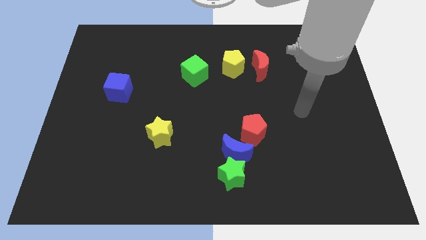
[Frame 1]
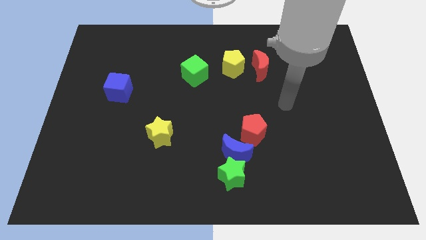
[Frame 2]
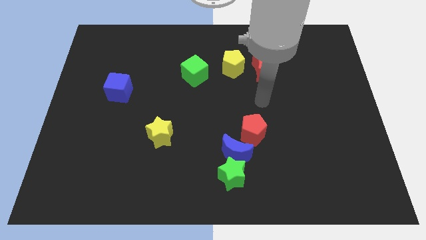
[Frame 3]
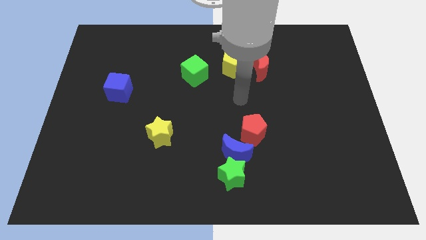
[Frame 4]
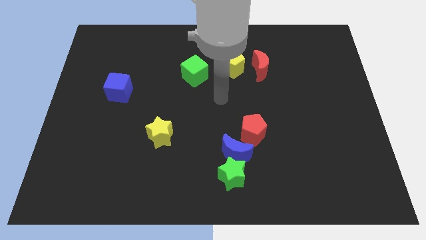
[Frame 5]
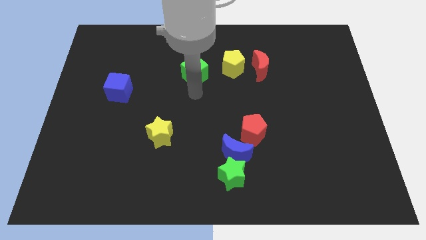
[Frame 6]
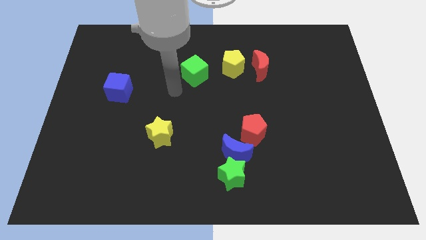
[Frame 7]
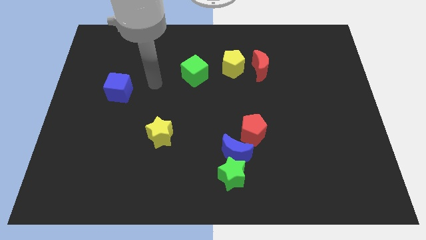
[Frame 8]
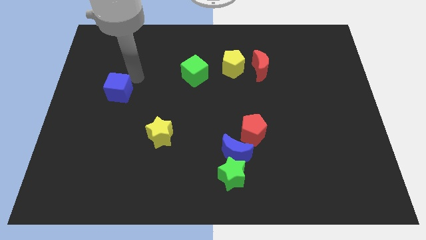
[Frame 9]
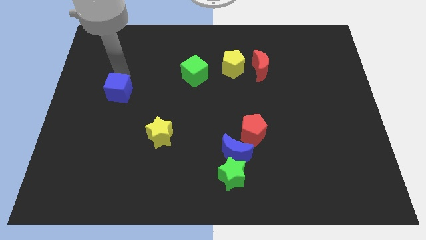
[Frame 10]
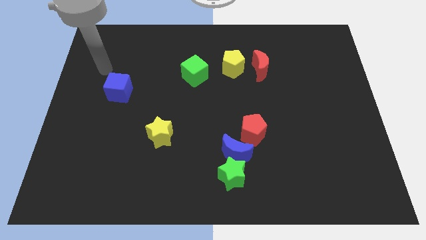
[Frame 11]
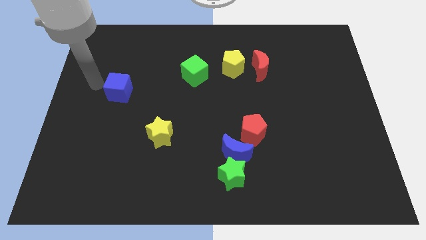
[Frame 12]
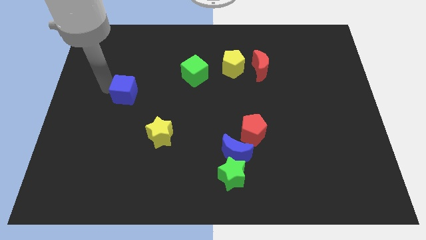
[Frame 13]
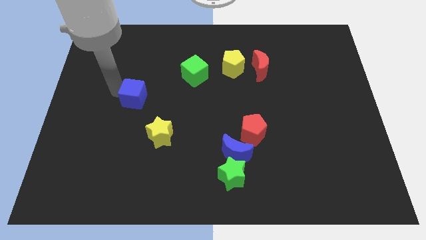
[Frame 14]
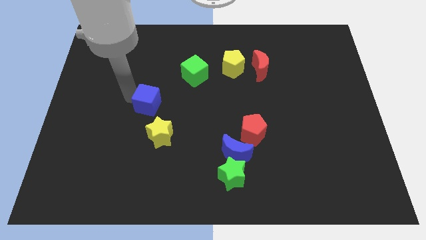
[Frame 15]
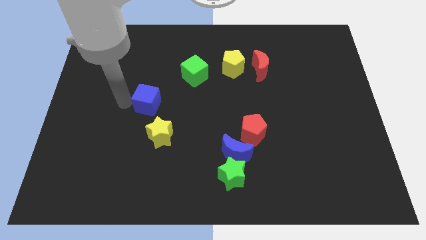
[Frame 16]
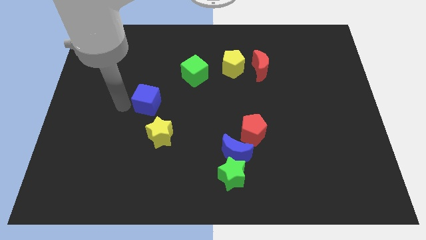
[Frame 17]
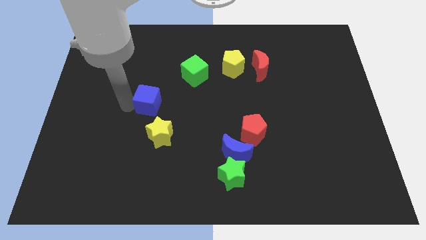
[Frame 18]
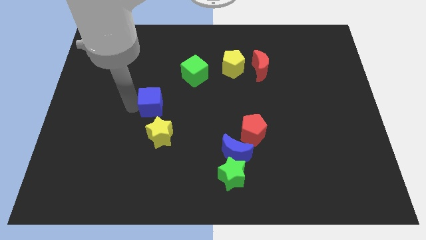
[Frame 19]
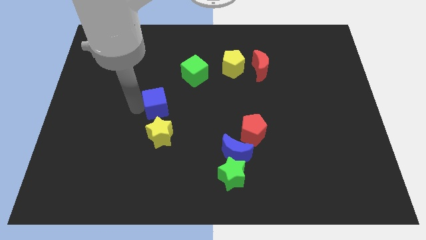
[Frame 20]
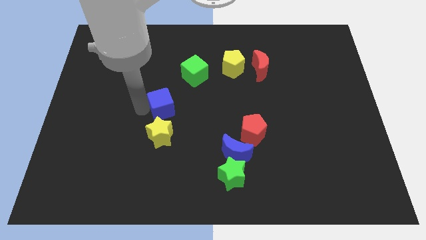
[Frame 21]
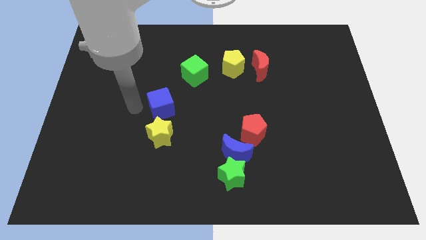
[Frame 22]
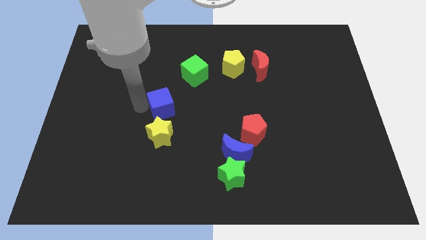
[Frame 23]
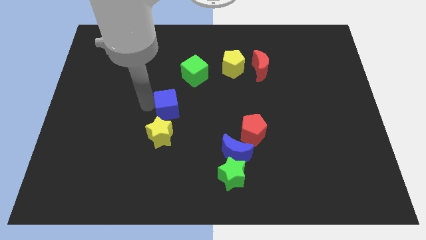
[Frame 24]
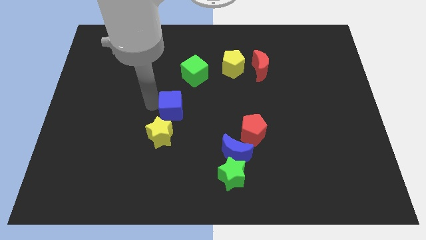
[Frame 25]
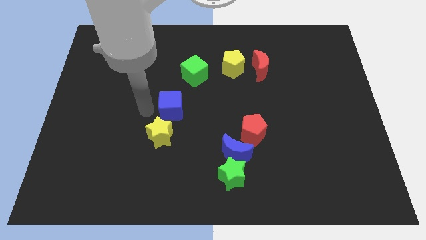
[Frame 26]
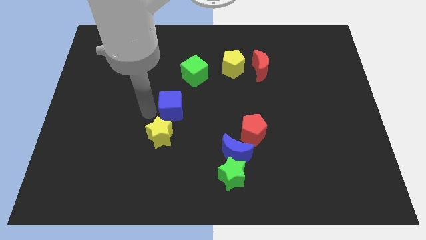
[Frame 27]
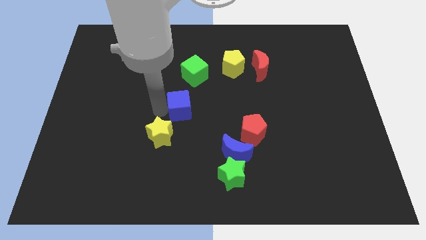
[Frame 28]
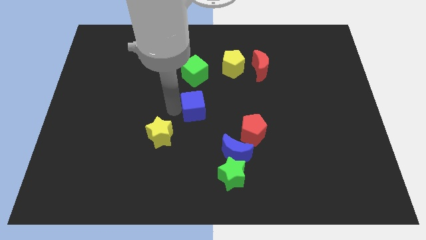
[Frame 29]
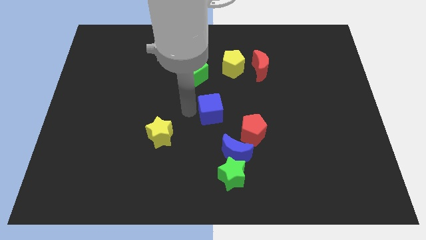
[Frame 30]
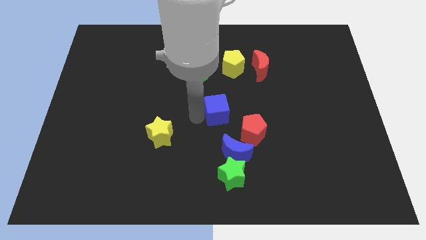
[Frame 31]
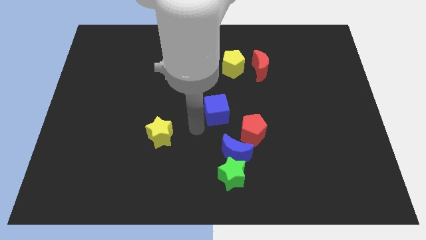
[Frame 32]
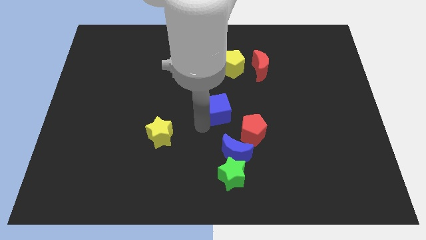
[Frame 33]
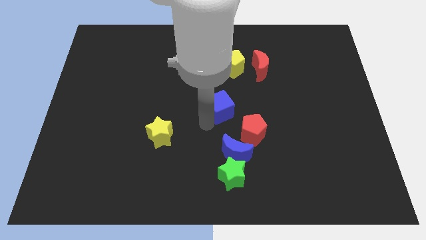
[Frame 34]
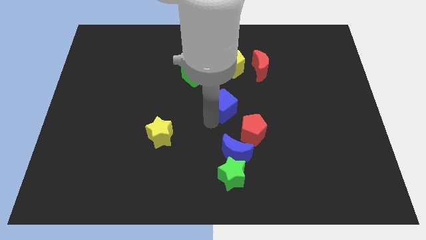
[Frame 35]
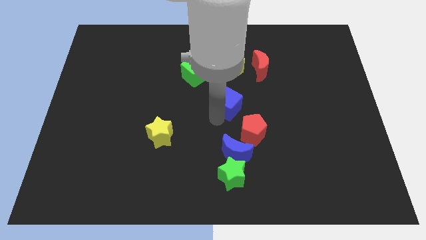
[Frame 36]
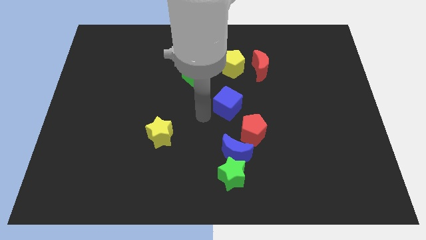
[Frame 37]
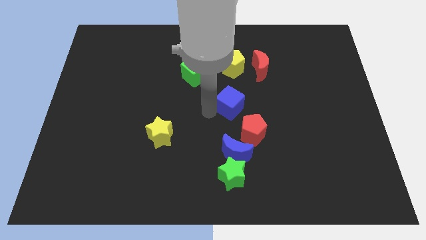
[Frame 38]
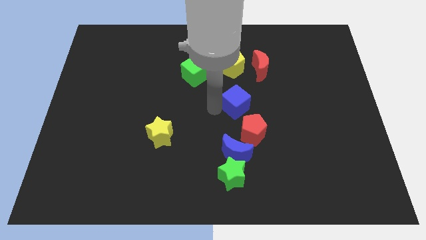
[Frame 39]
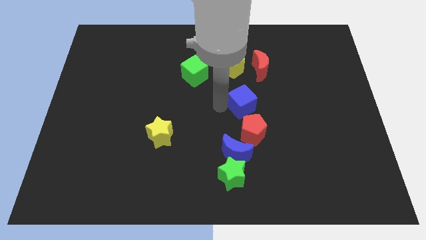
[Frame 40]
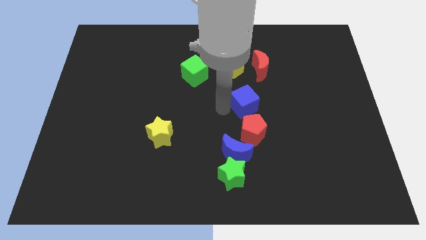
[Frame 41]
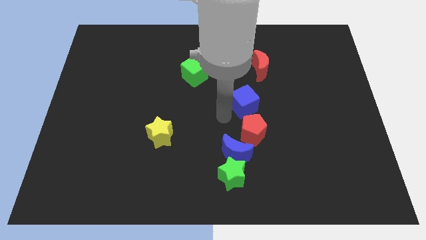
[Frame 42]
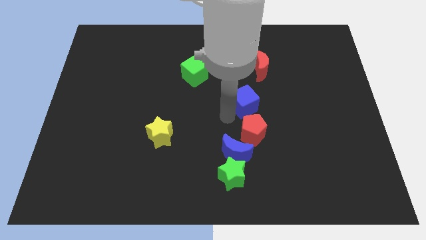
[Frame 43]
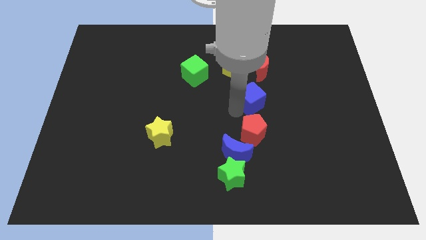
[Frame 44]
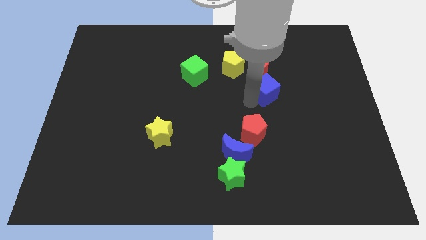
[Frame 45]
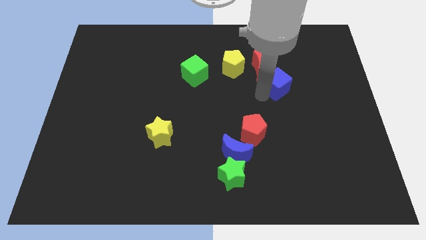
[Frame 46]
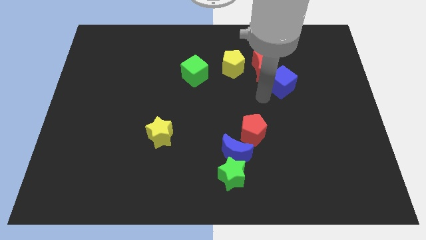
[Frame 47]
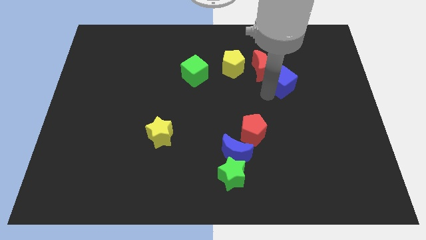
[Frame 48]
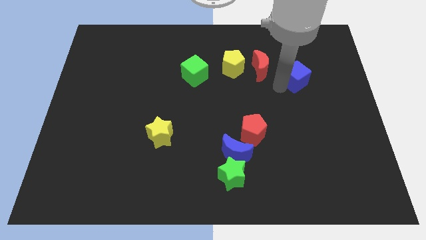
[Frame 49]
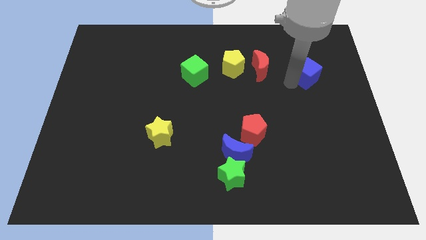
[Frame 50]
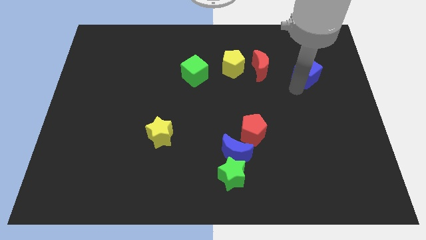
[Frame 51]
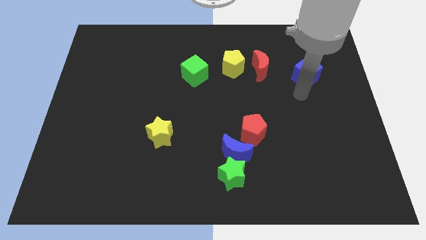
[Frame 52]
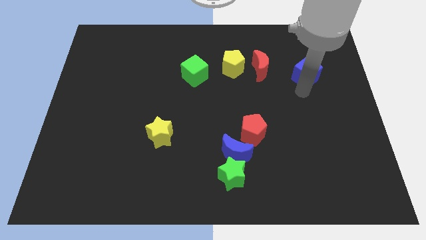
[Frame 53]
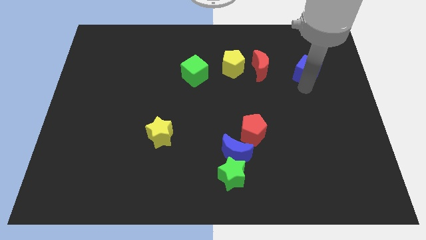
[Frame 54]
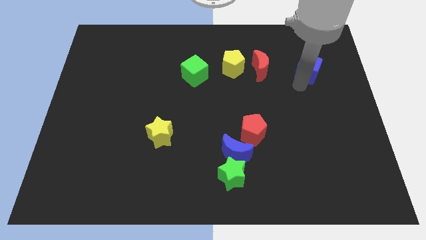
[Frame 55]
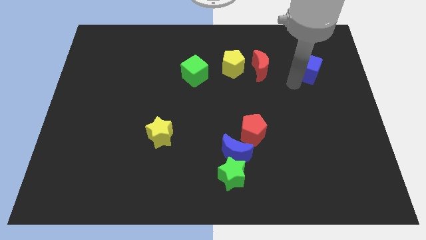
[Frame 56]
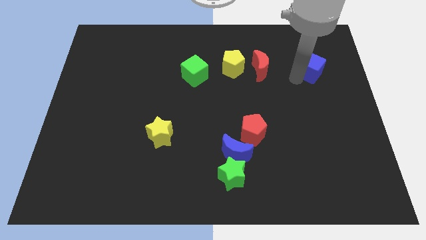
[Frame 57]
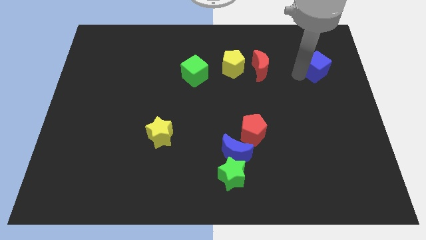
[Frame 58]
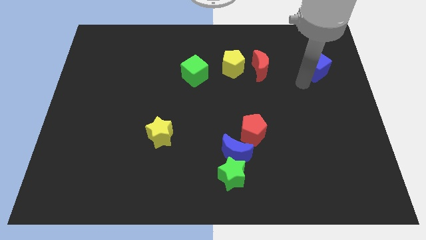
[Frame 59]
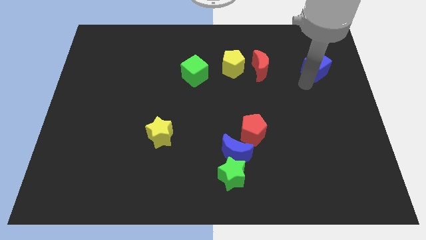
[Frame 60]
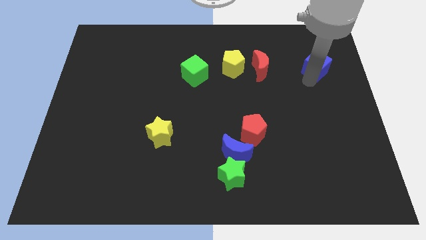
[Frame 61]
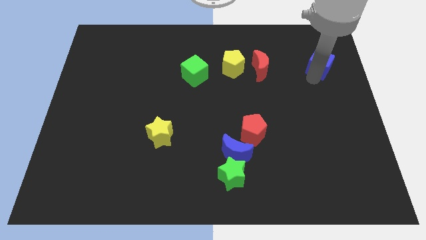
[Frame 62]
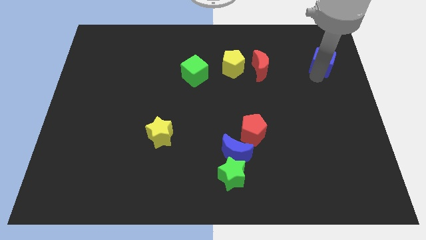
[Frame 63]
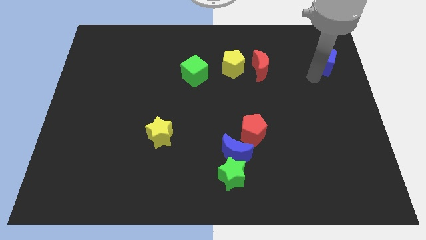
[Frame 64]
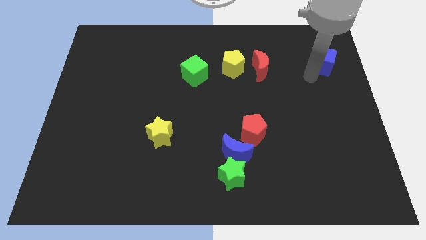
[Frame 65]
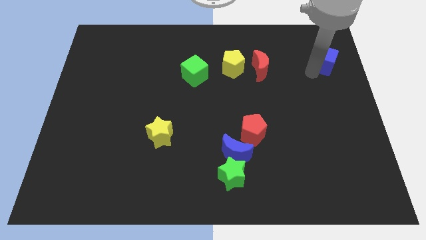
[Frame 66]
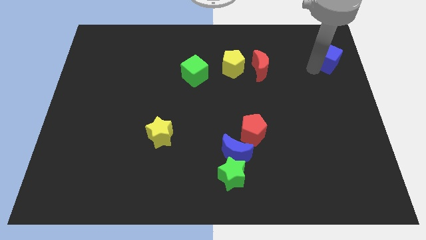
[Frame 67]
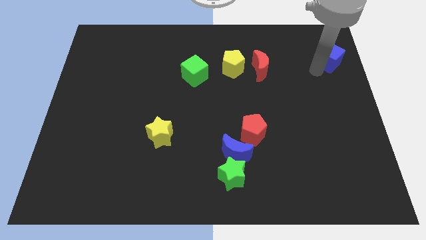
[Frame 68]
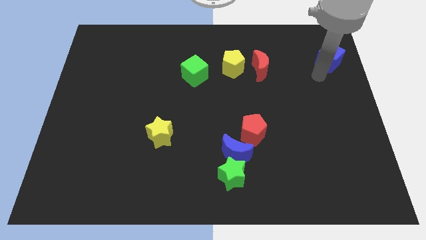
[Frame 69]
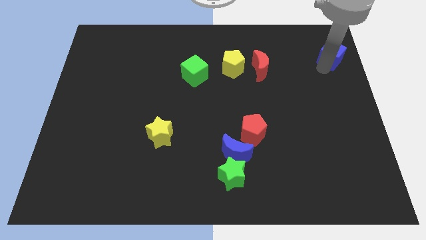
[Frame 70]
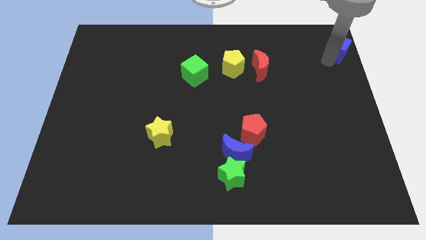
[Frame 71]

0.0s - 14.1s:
push the blue cube to the top right of the board
